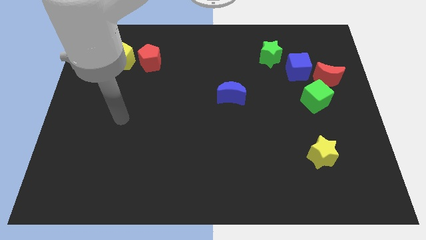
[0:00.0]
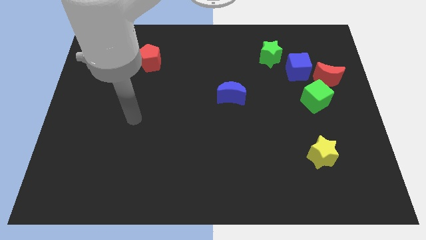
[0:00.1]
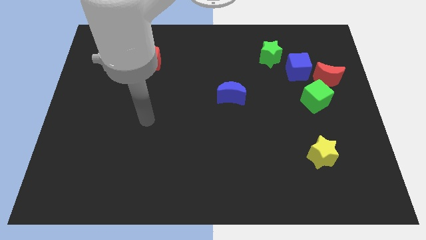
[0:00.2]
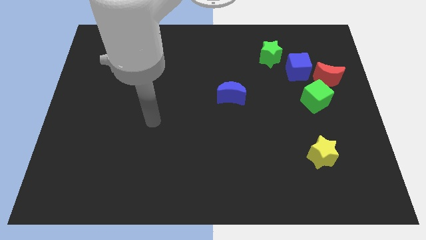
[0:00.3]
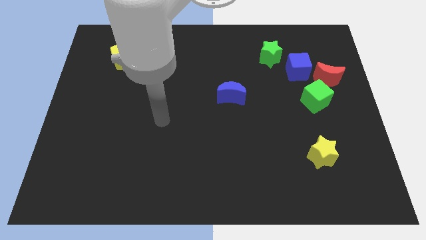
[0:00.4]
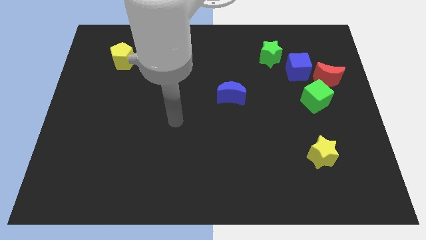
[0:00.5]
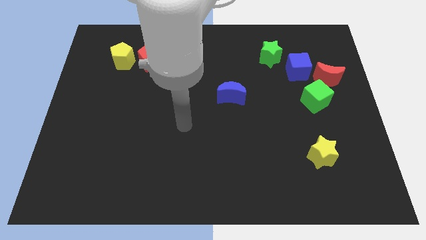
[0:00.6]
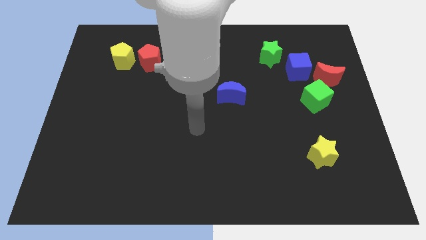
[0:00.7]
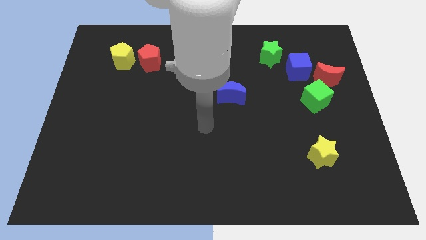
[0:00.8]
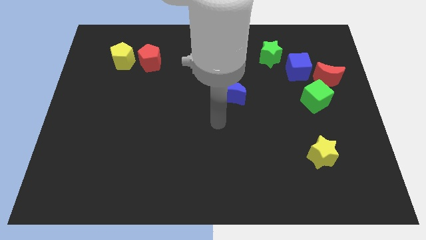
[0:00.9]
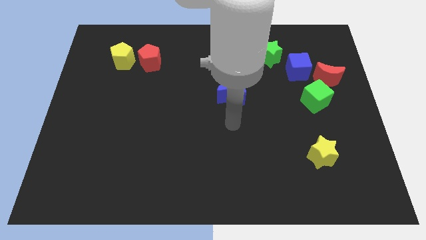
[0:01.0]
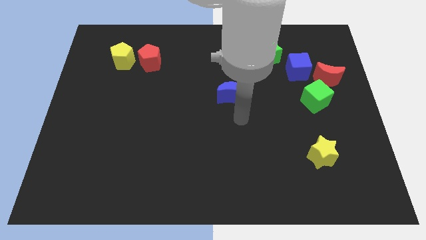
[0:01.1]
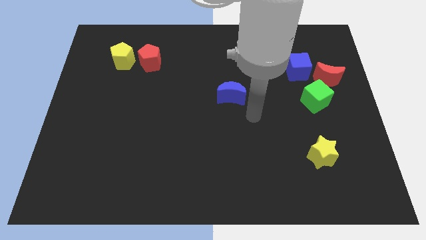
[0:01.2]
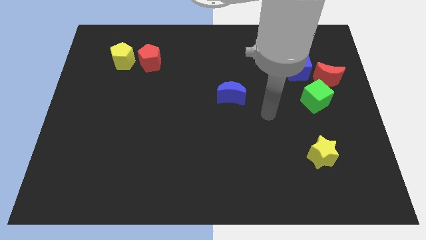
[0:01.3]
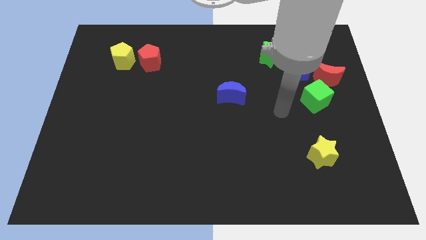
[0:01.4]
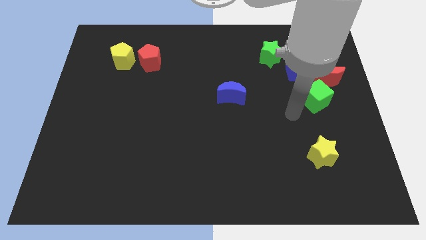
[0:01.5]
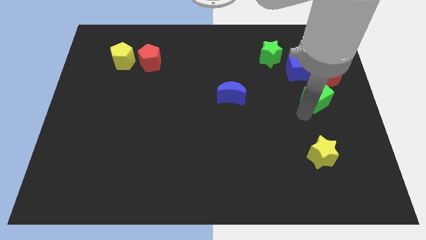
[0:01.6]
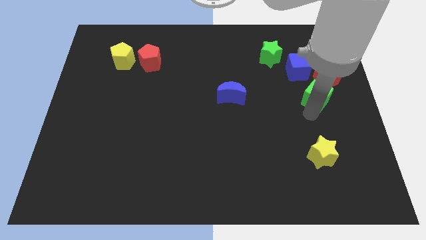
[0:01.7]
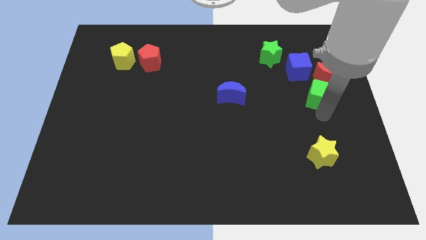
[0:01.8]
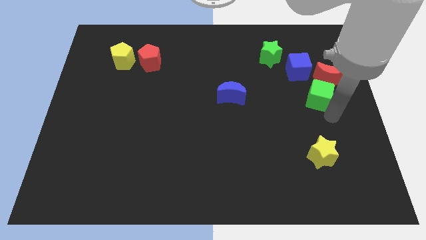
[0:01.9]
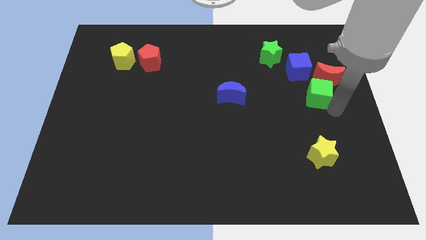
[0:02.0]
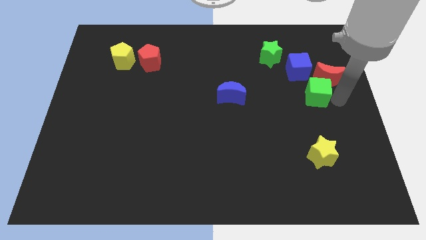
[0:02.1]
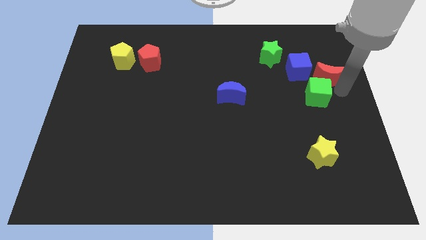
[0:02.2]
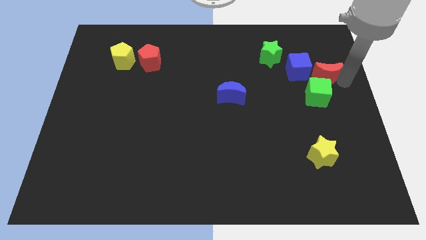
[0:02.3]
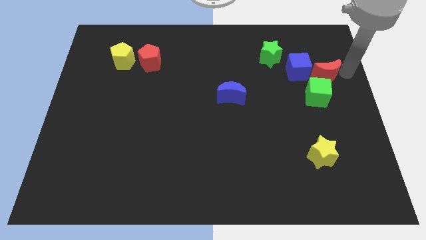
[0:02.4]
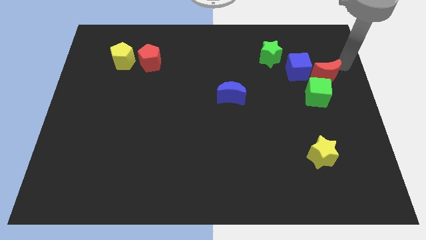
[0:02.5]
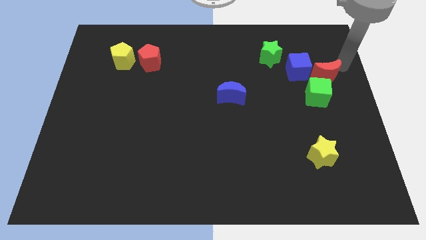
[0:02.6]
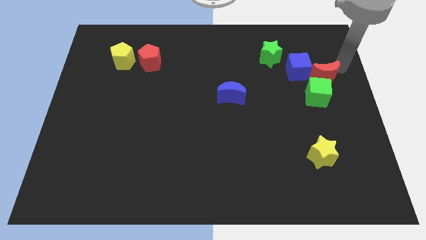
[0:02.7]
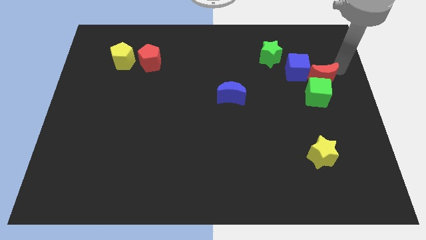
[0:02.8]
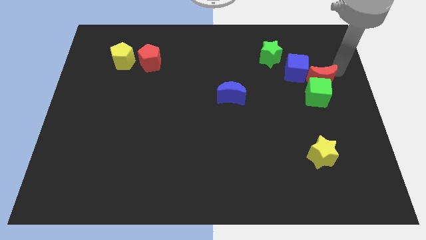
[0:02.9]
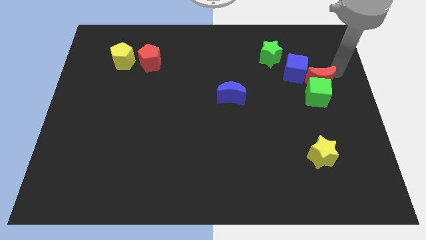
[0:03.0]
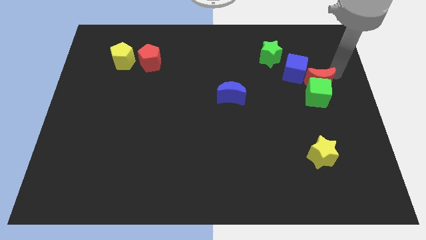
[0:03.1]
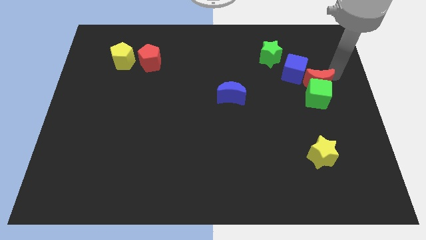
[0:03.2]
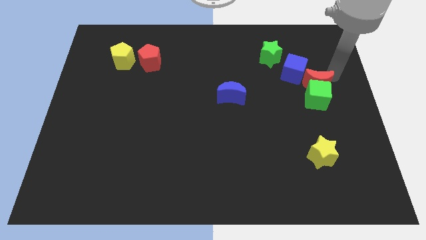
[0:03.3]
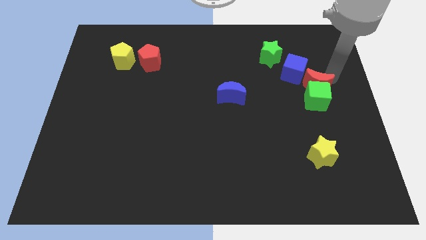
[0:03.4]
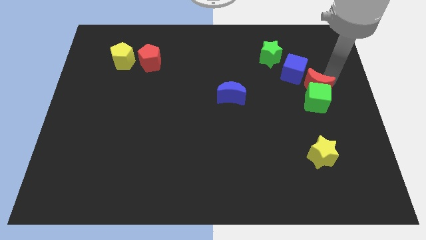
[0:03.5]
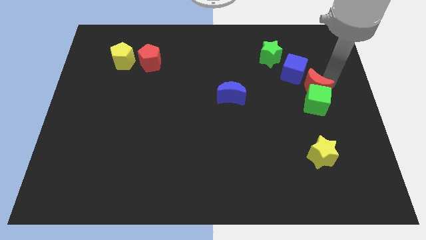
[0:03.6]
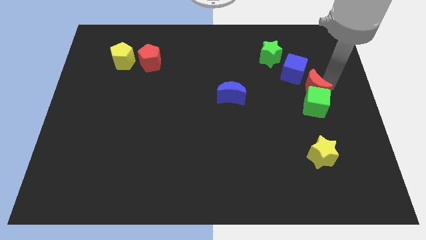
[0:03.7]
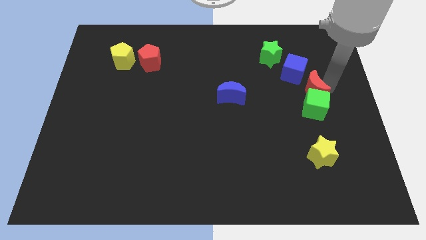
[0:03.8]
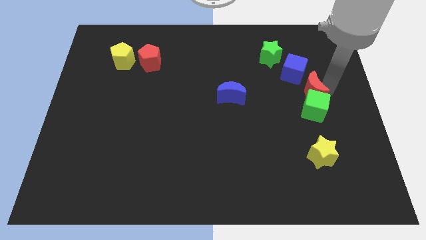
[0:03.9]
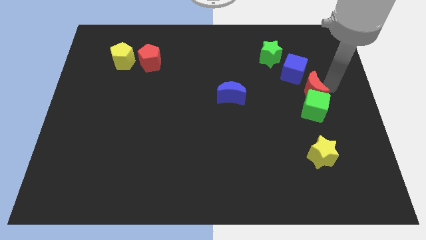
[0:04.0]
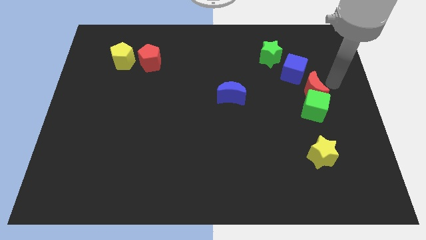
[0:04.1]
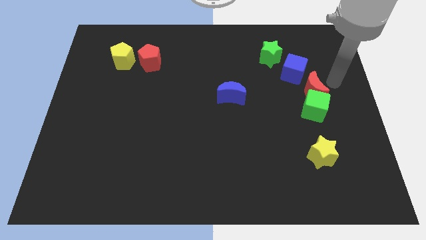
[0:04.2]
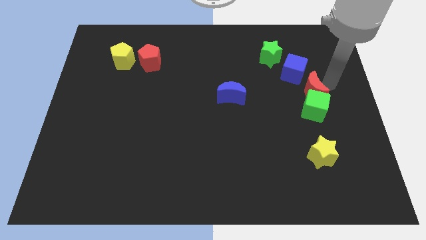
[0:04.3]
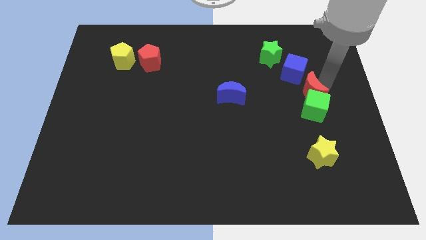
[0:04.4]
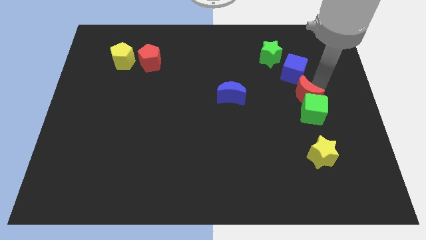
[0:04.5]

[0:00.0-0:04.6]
move the red moon a little downwards and then to the left

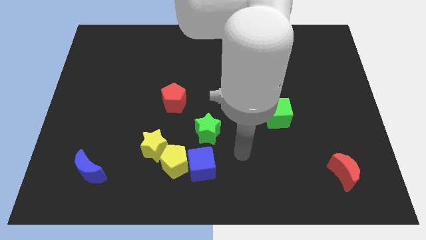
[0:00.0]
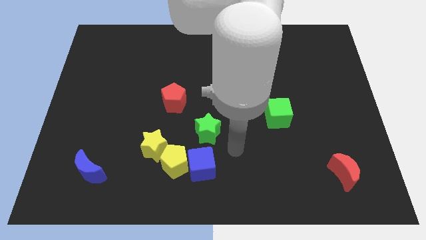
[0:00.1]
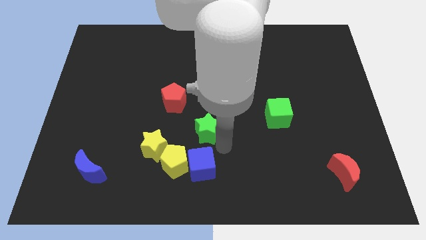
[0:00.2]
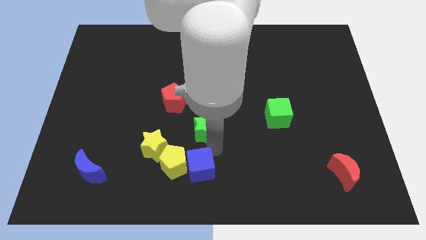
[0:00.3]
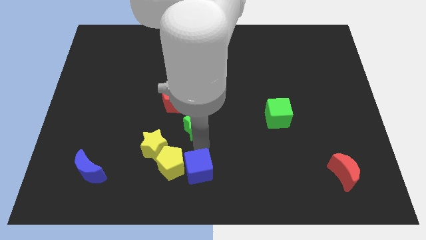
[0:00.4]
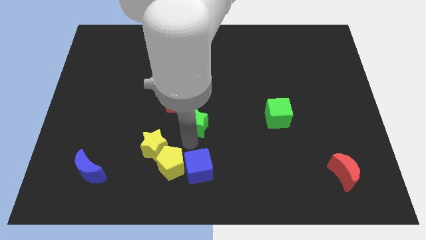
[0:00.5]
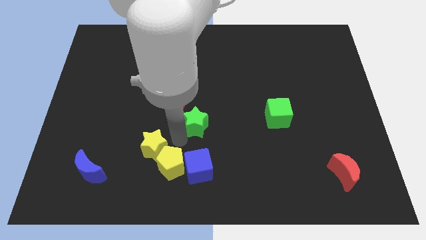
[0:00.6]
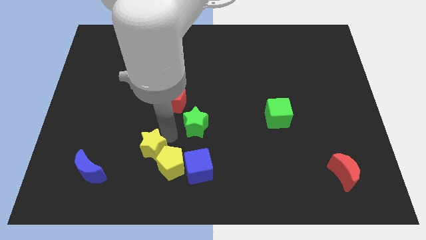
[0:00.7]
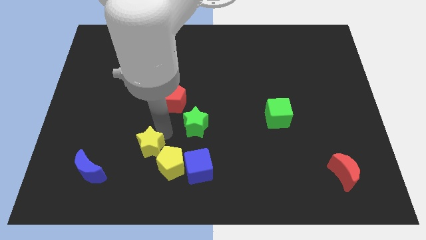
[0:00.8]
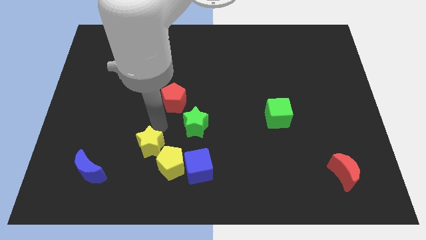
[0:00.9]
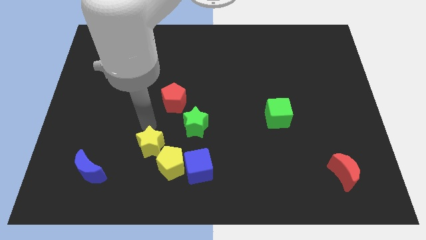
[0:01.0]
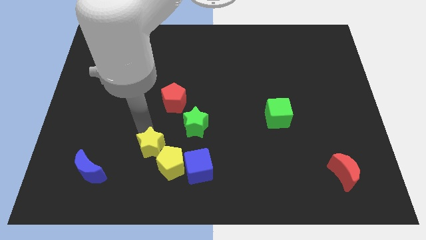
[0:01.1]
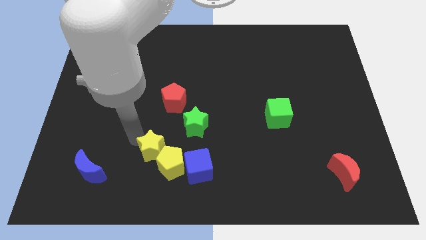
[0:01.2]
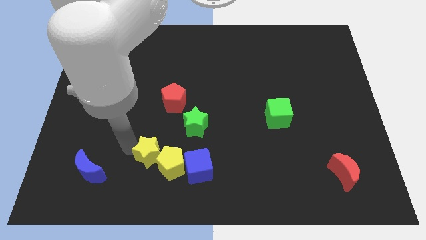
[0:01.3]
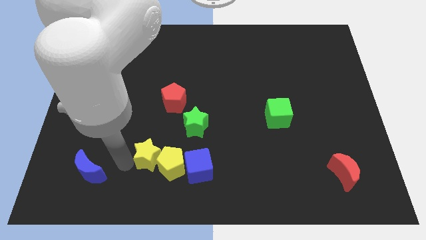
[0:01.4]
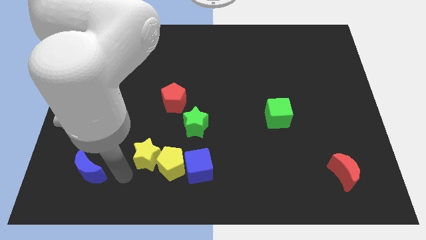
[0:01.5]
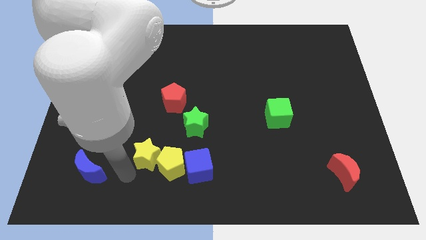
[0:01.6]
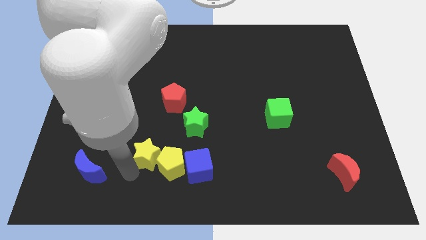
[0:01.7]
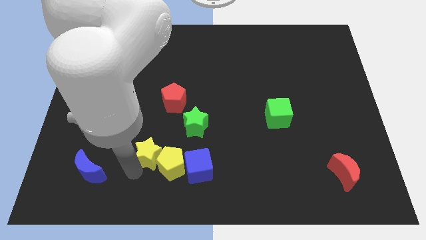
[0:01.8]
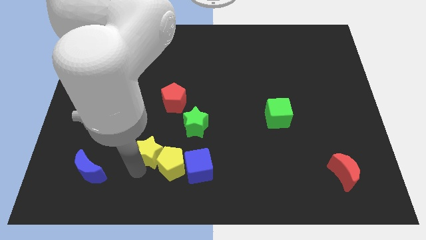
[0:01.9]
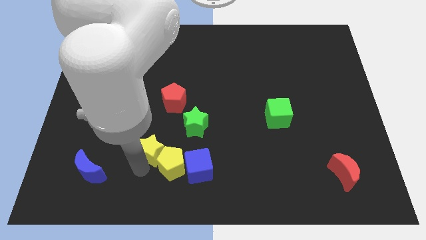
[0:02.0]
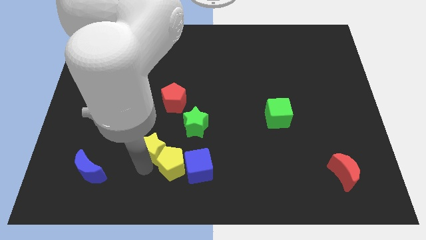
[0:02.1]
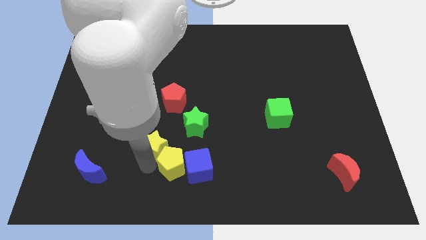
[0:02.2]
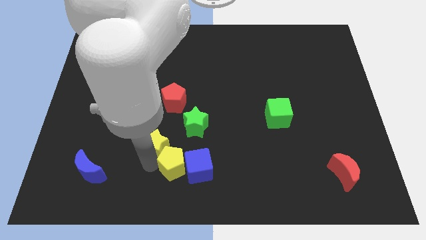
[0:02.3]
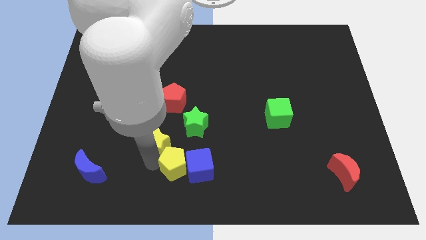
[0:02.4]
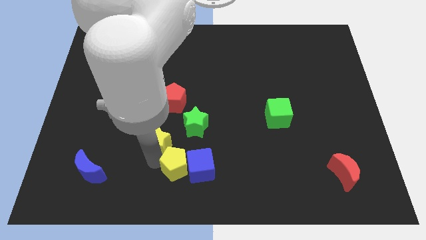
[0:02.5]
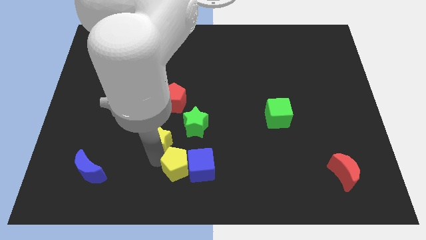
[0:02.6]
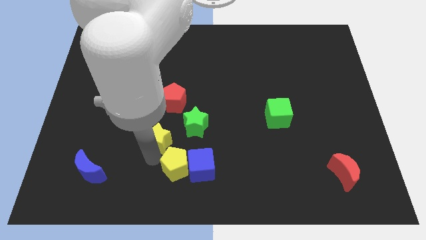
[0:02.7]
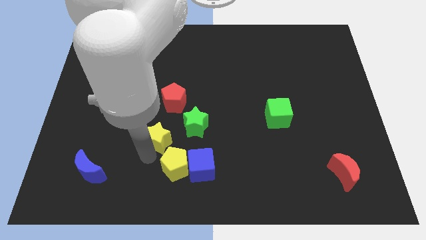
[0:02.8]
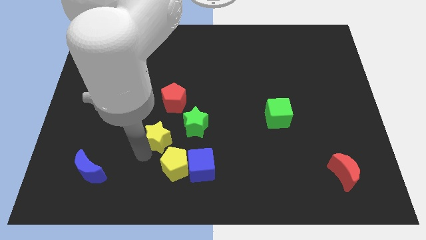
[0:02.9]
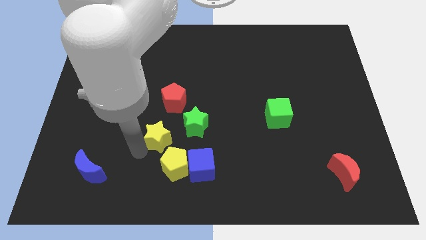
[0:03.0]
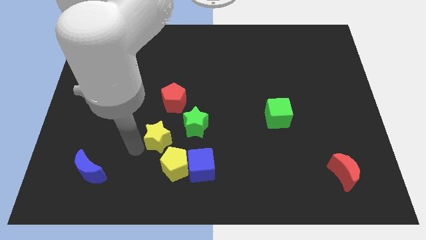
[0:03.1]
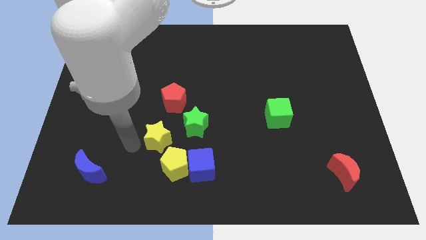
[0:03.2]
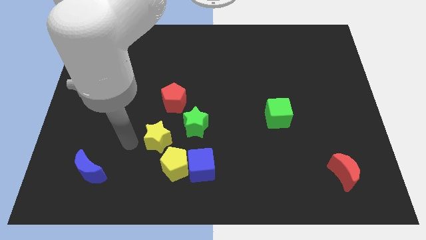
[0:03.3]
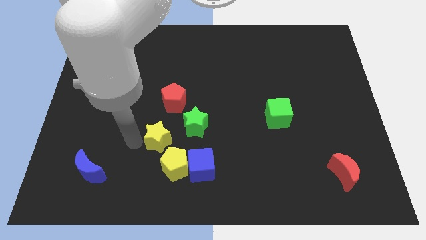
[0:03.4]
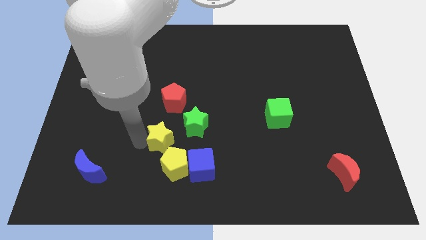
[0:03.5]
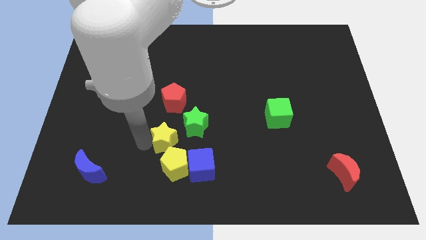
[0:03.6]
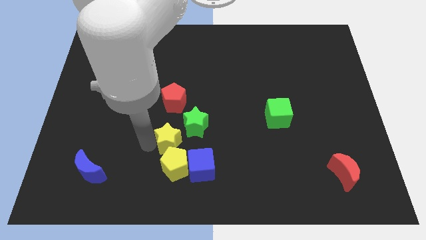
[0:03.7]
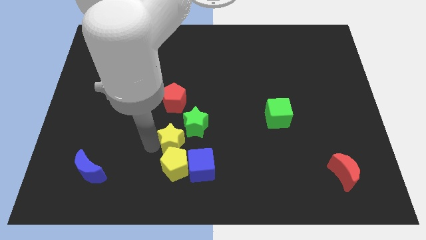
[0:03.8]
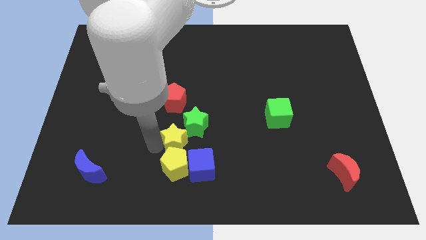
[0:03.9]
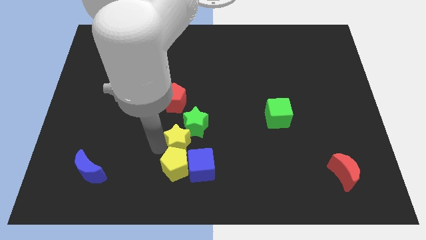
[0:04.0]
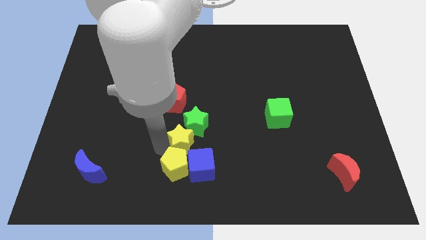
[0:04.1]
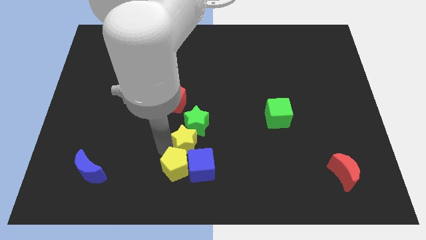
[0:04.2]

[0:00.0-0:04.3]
slide the yellow star a little to the right
